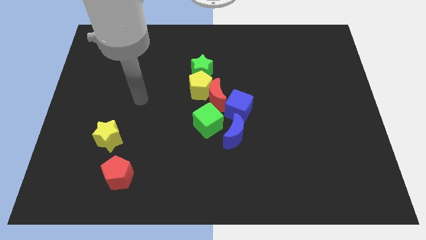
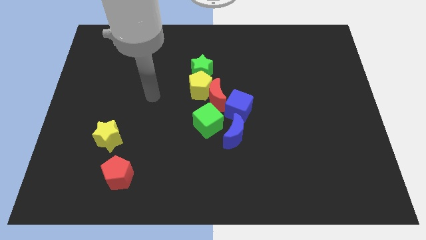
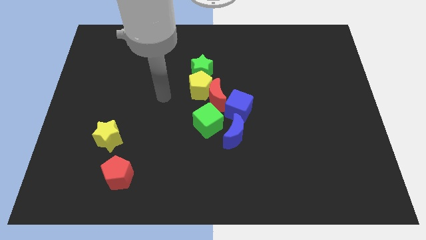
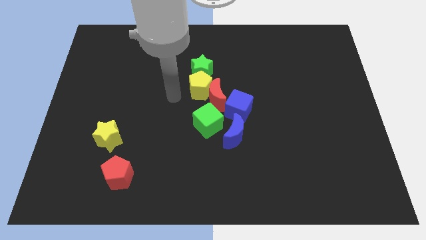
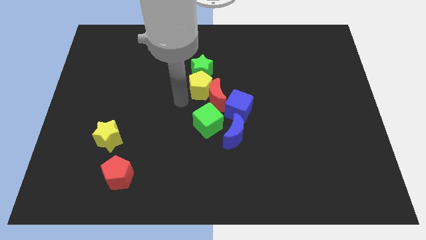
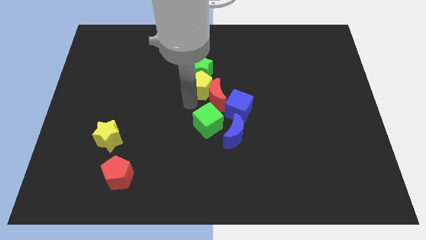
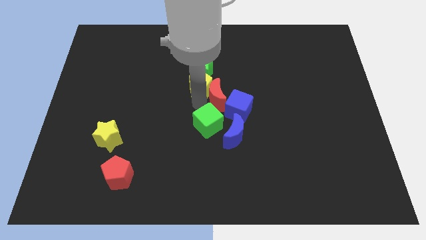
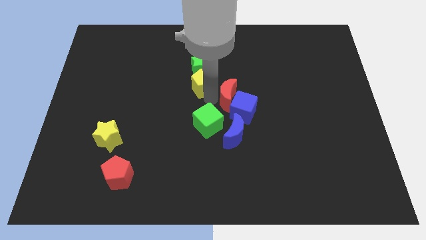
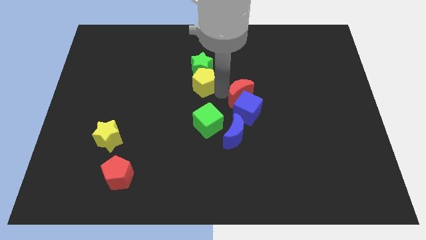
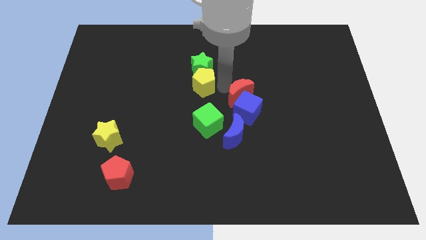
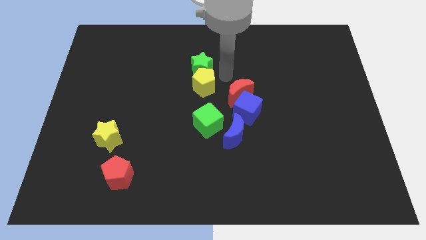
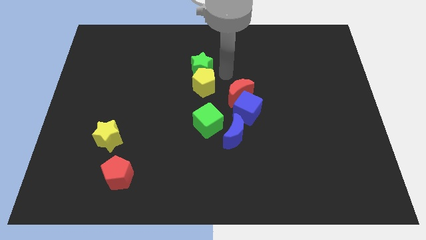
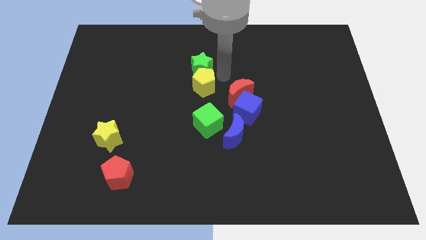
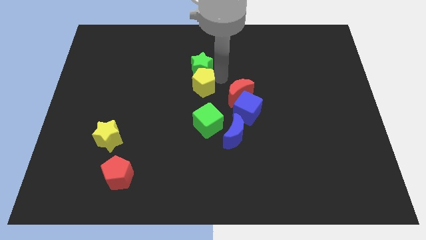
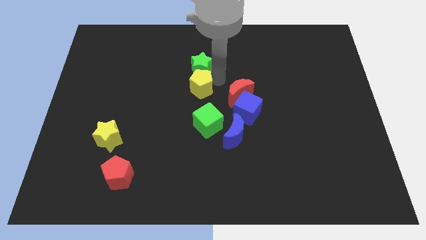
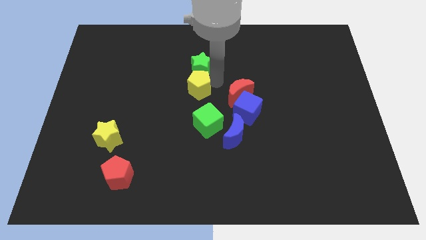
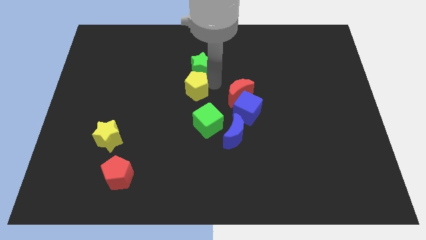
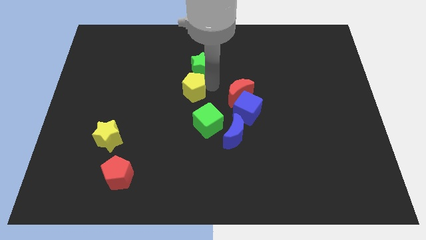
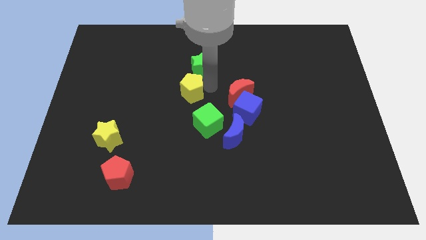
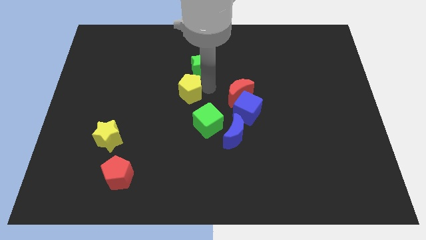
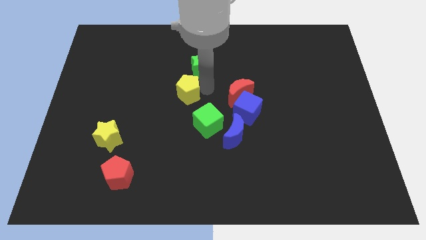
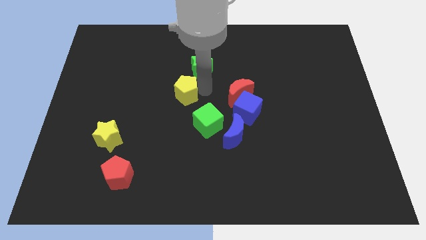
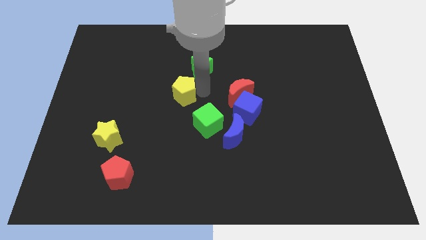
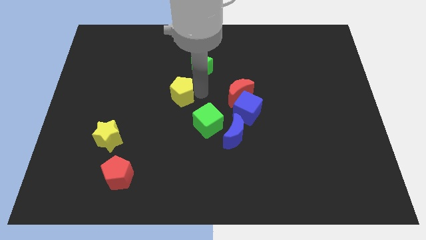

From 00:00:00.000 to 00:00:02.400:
move the yellow pentagon away from the red moon and green star

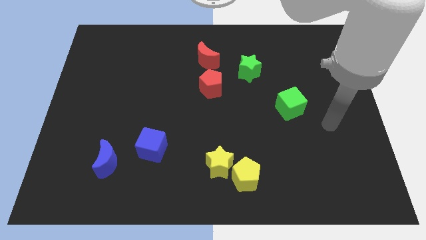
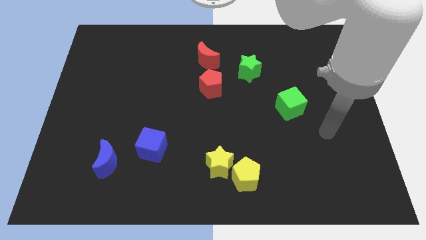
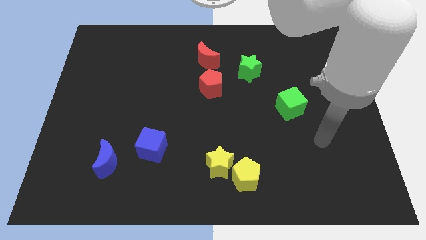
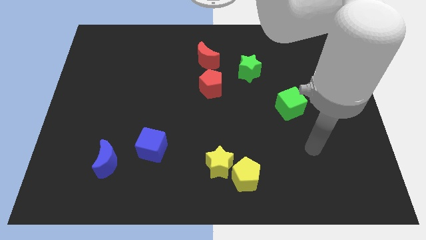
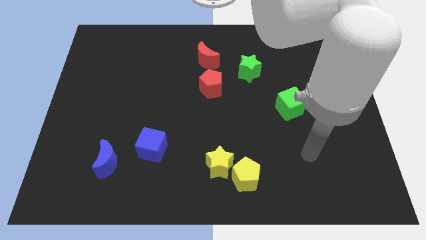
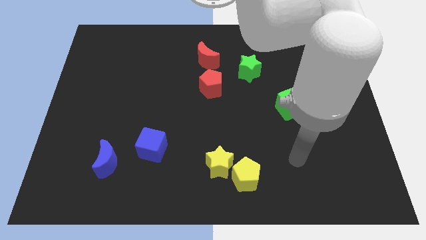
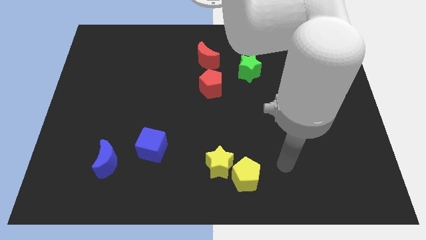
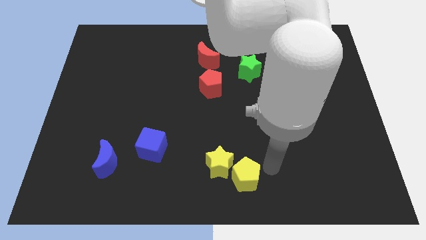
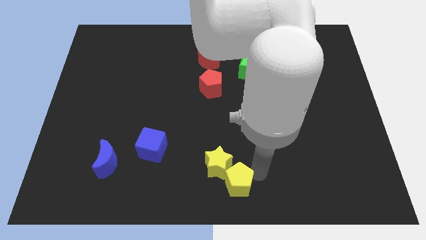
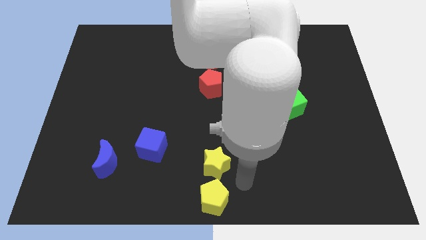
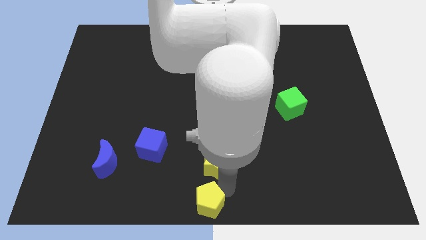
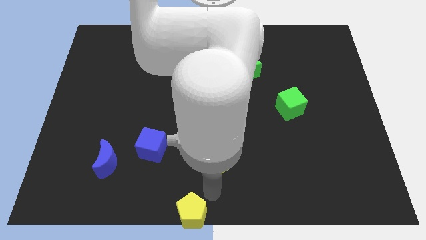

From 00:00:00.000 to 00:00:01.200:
move the yellow star away from the yellow pentagon

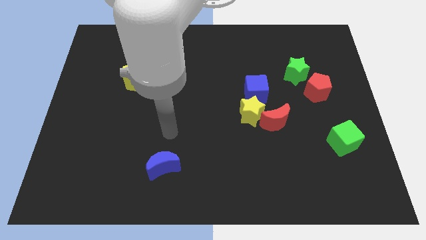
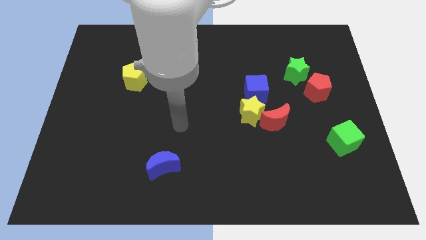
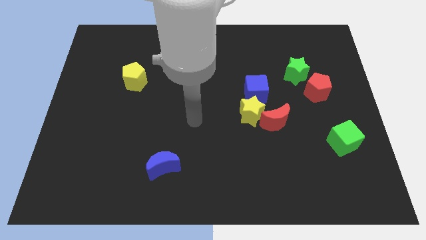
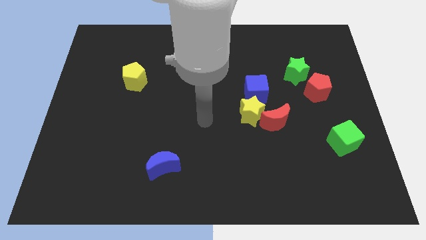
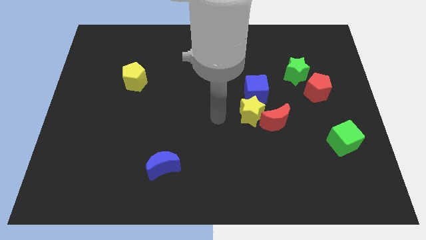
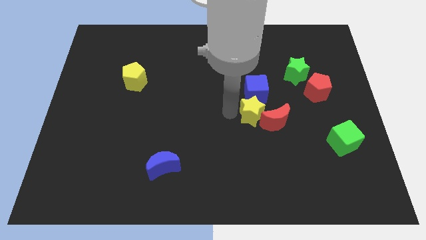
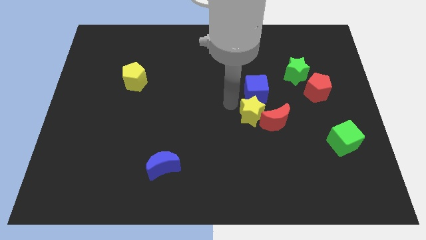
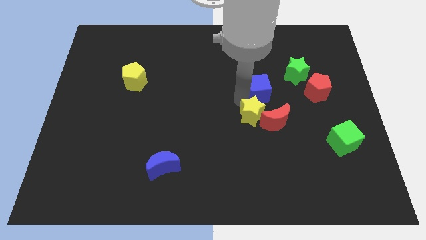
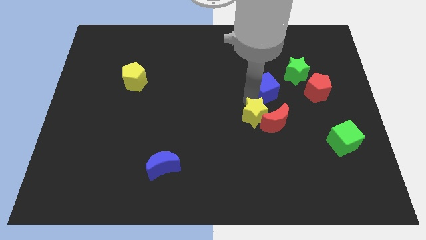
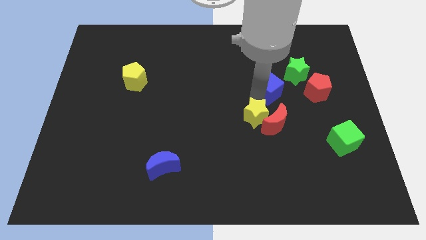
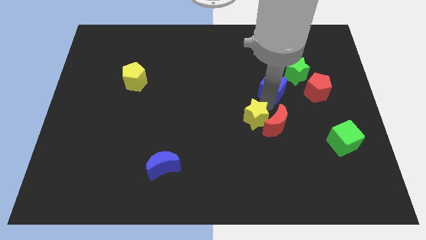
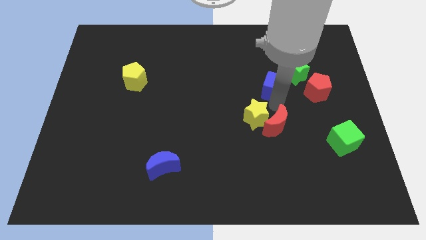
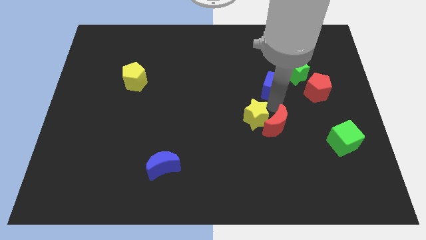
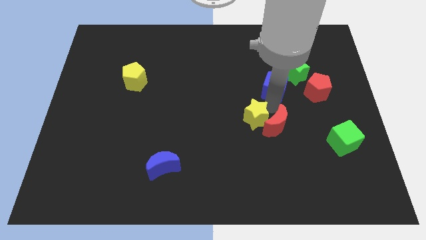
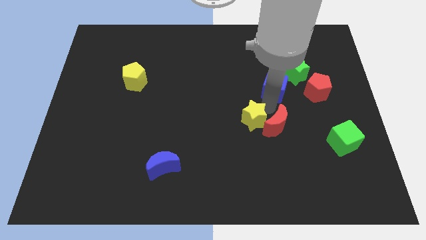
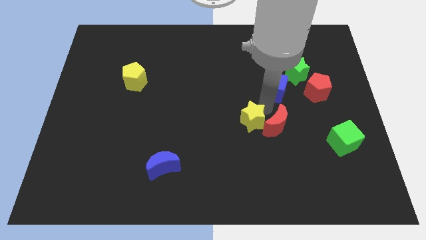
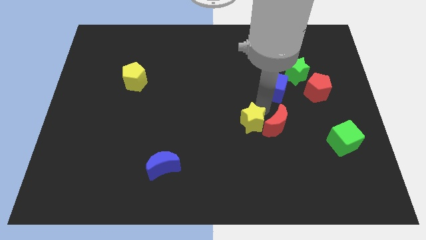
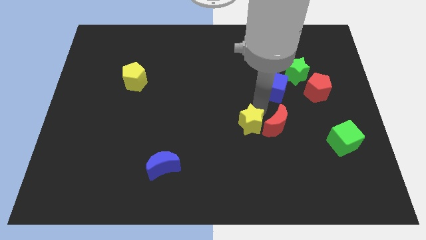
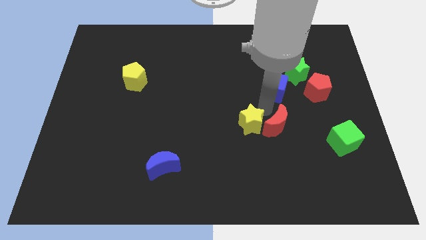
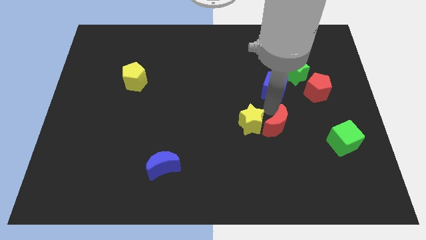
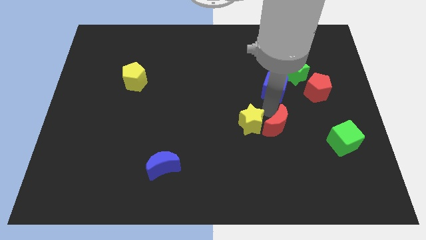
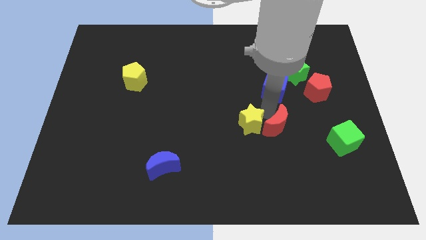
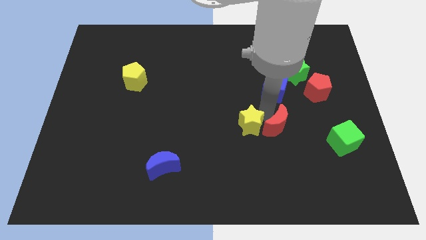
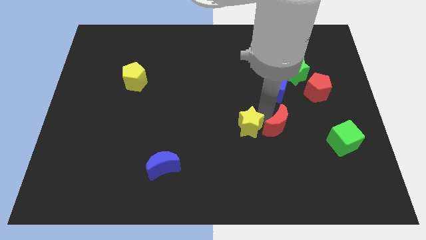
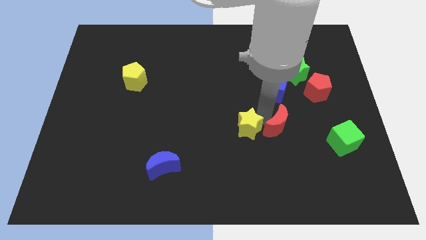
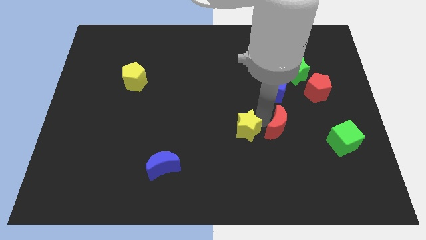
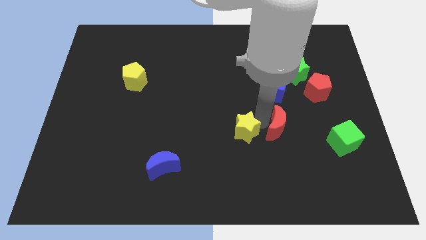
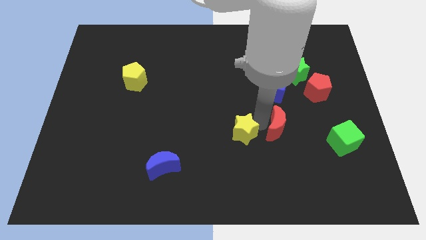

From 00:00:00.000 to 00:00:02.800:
move the yellow star away from the red moon and blue cube

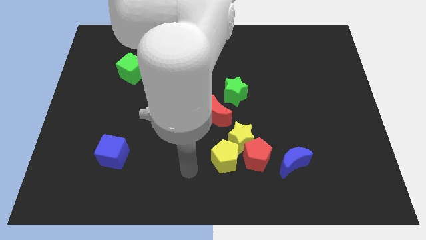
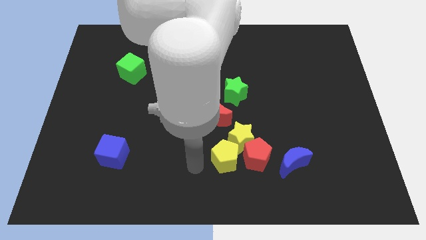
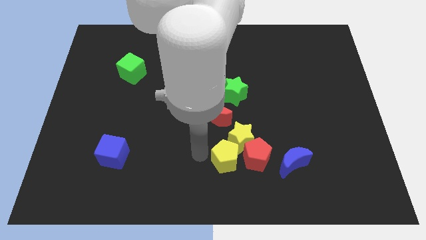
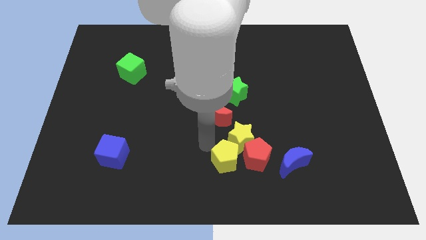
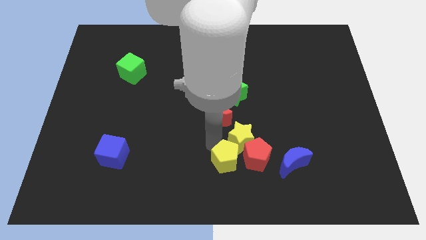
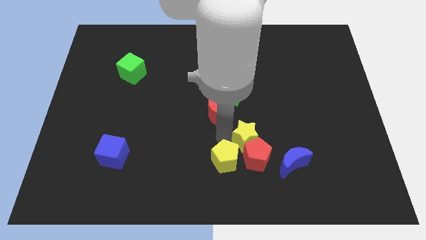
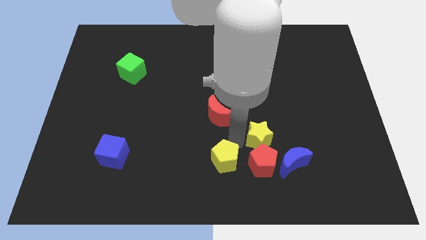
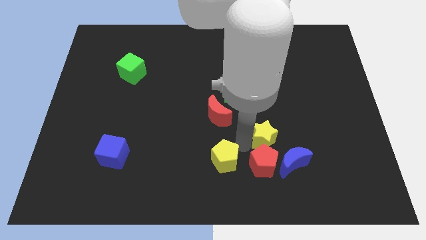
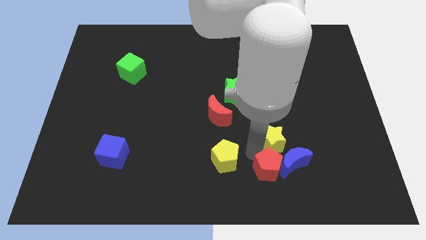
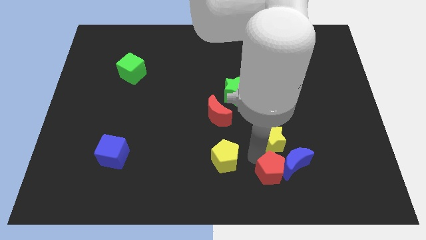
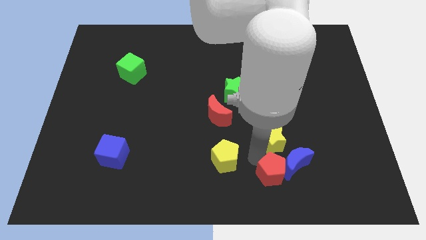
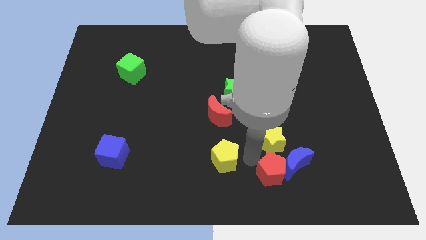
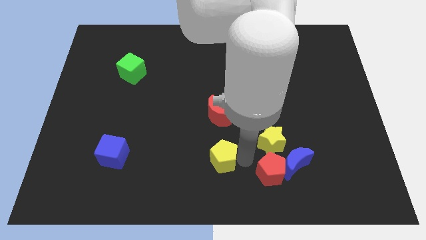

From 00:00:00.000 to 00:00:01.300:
separate the yellow pentagon from the yellow star and red pentagon

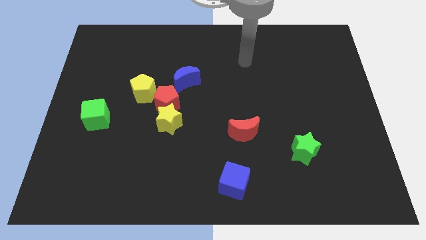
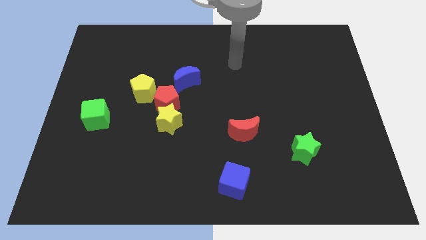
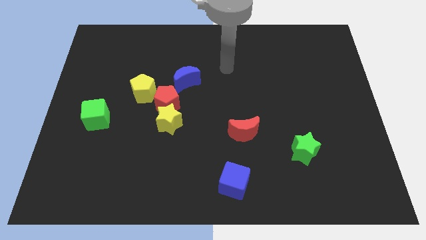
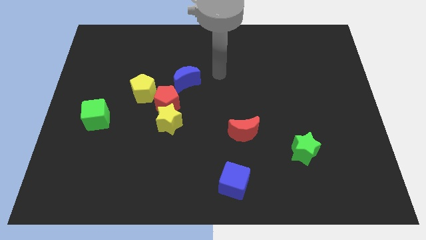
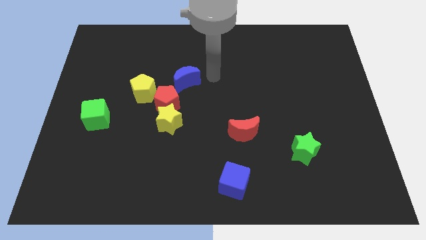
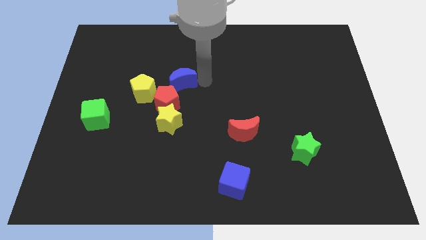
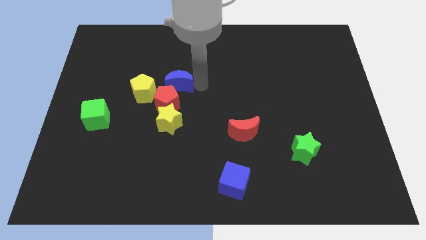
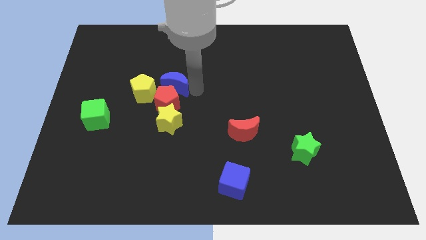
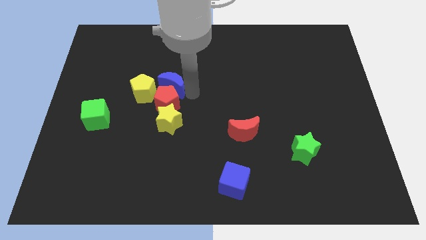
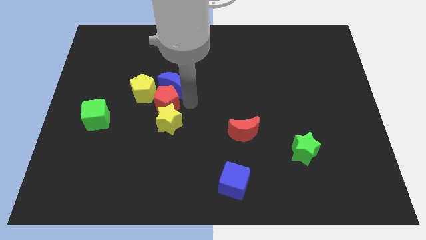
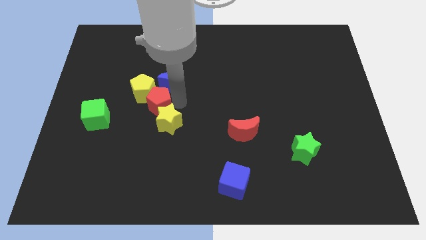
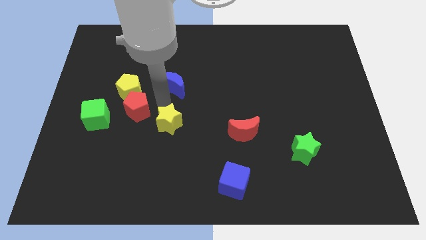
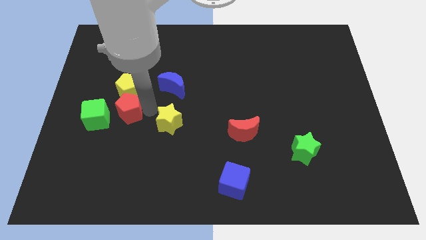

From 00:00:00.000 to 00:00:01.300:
pull the yellow star apart from the red pentagon
